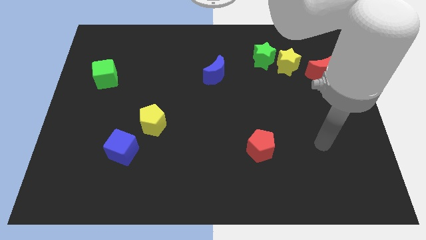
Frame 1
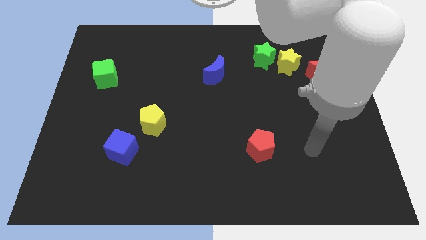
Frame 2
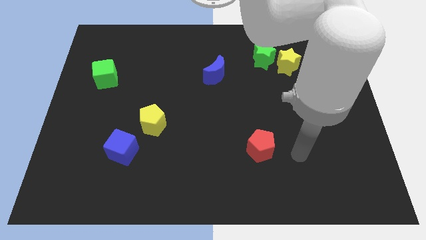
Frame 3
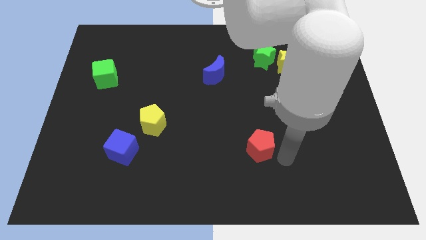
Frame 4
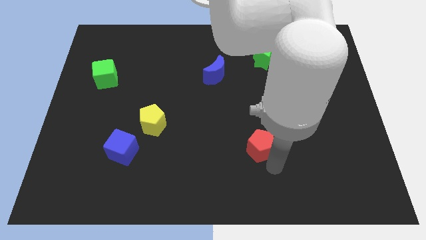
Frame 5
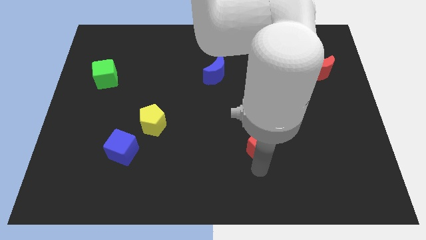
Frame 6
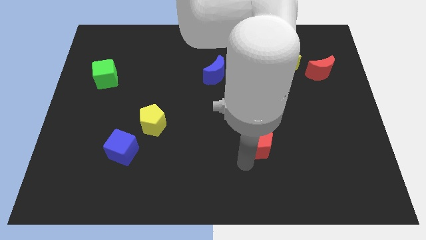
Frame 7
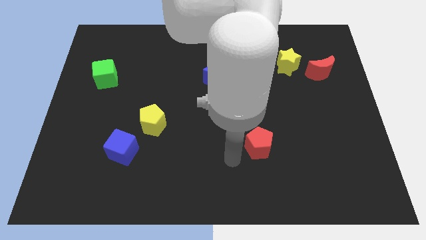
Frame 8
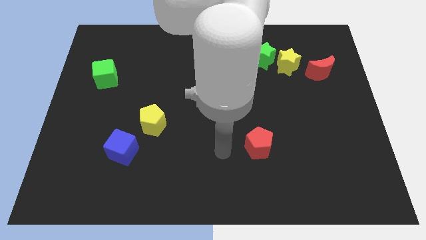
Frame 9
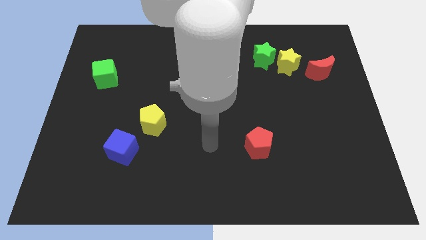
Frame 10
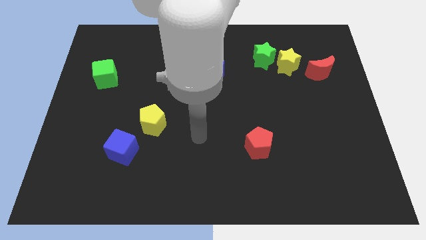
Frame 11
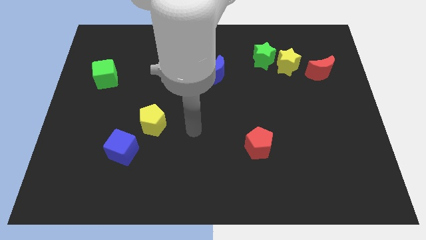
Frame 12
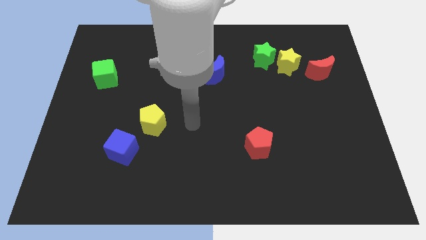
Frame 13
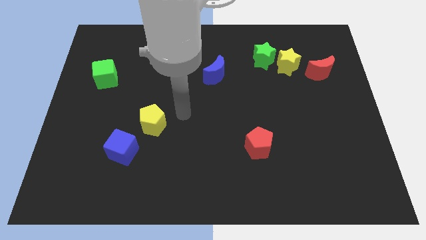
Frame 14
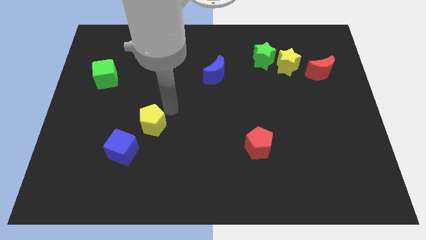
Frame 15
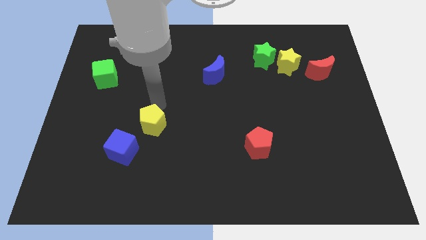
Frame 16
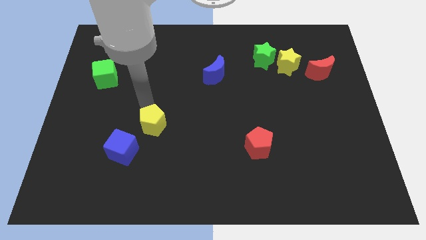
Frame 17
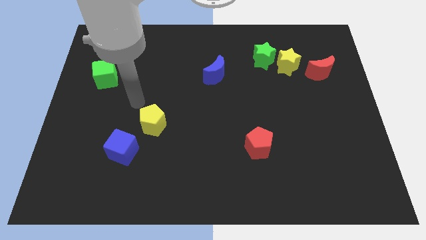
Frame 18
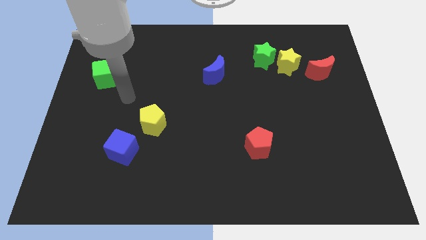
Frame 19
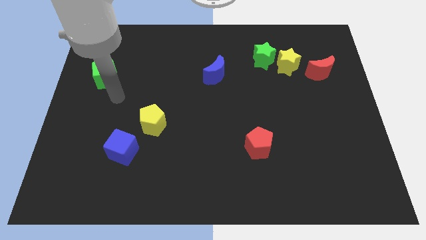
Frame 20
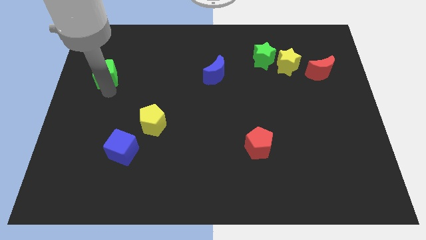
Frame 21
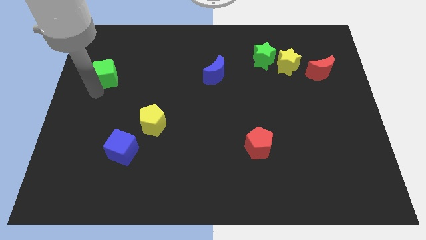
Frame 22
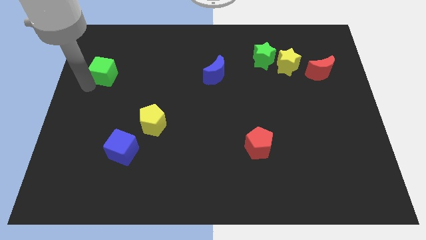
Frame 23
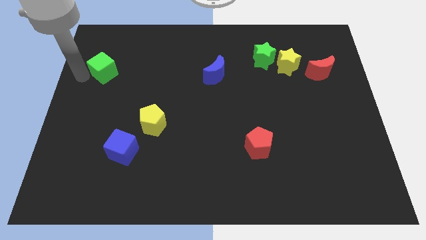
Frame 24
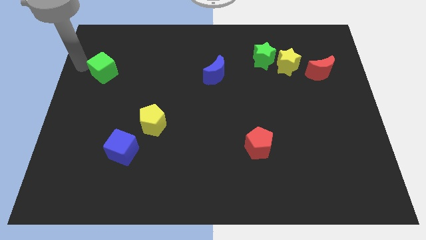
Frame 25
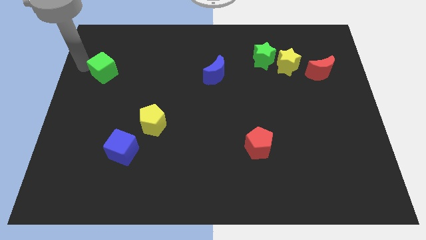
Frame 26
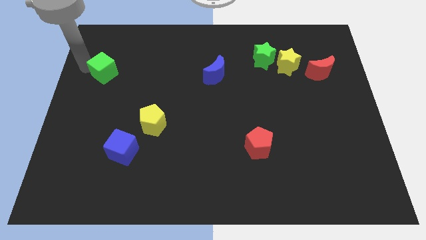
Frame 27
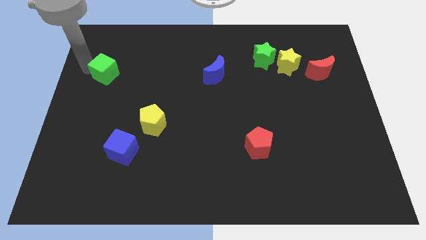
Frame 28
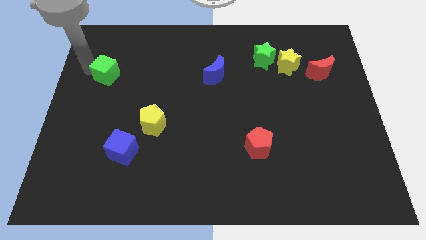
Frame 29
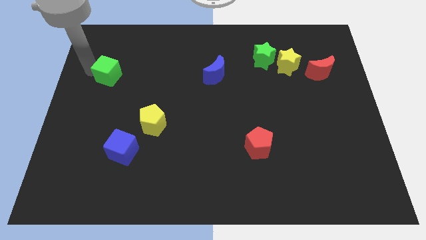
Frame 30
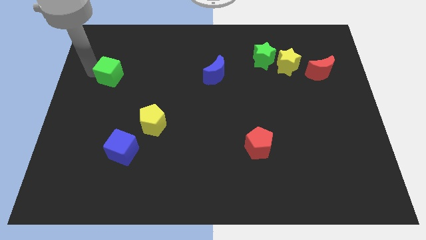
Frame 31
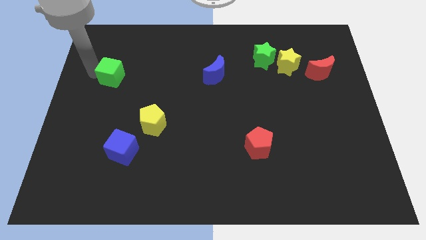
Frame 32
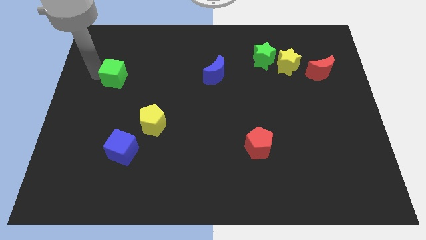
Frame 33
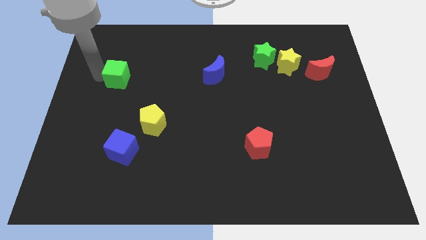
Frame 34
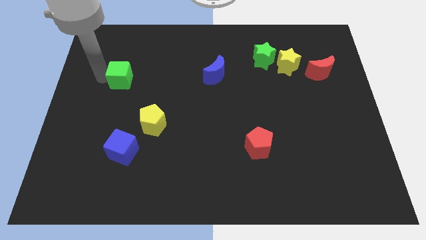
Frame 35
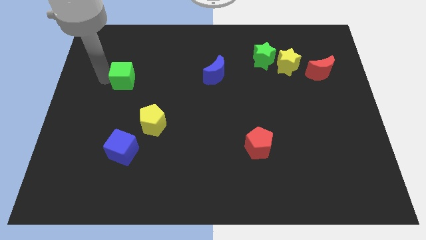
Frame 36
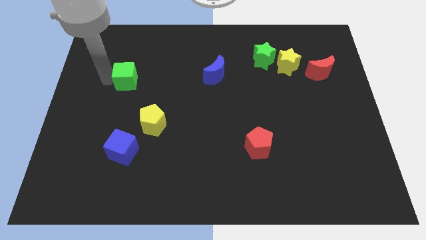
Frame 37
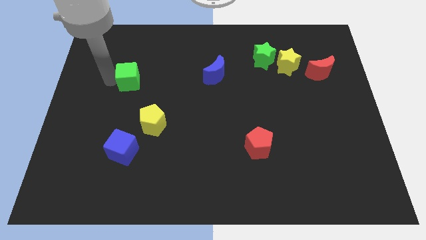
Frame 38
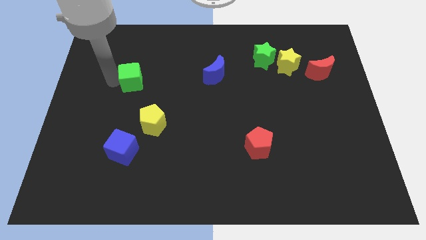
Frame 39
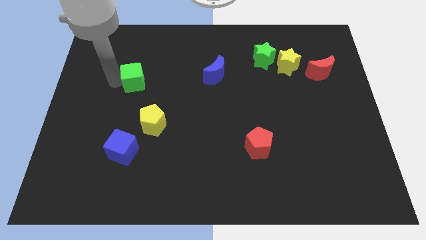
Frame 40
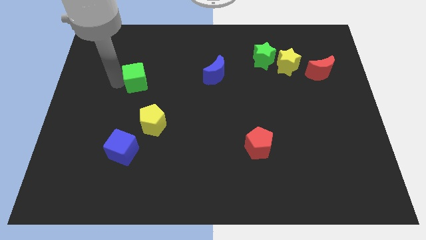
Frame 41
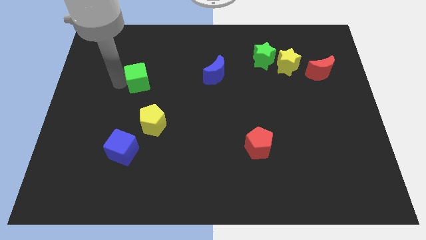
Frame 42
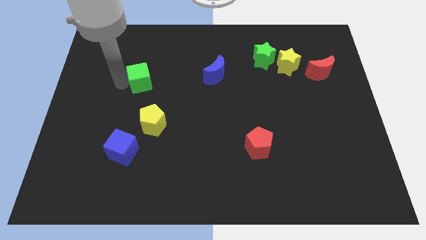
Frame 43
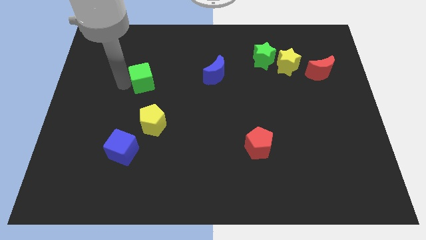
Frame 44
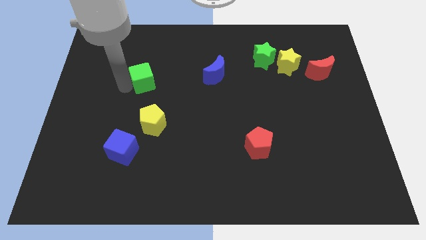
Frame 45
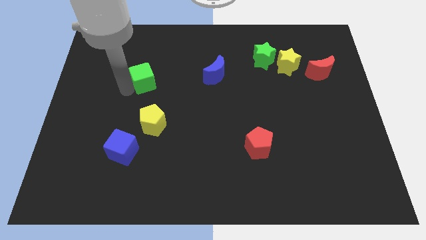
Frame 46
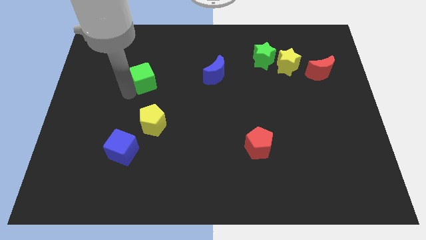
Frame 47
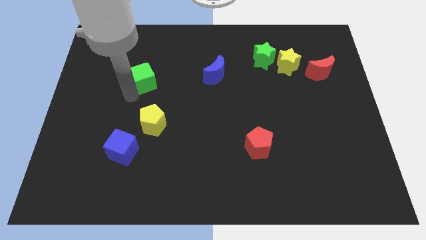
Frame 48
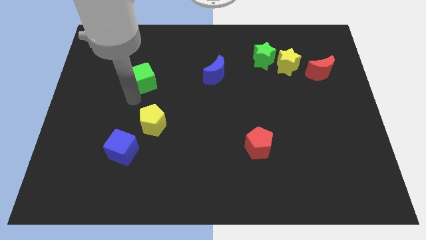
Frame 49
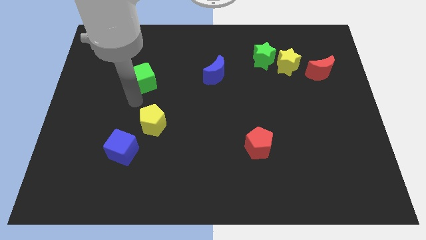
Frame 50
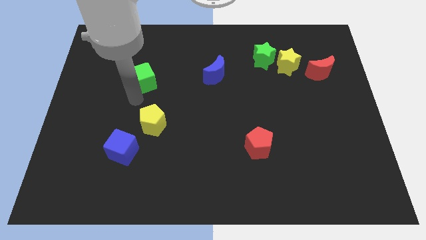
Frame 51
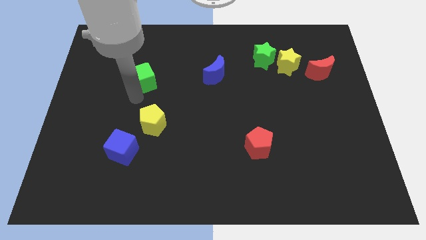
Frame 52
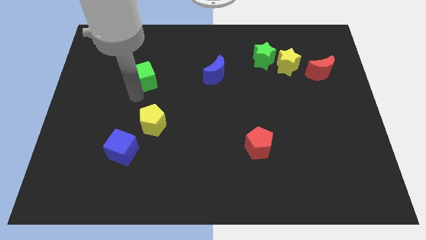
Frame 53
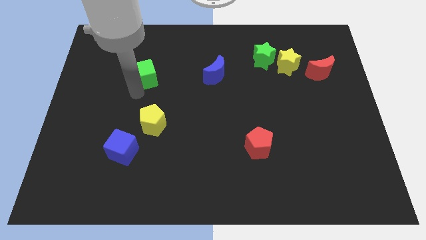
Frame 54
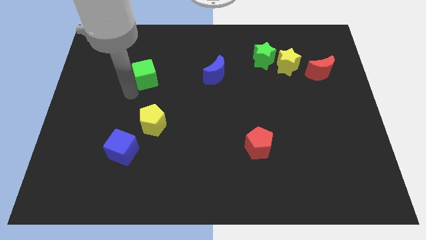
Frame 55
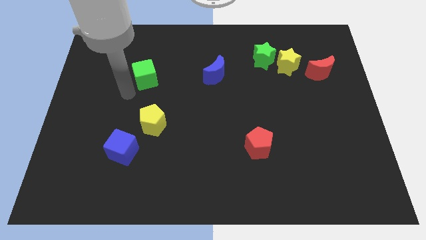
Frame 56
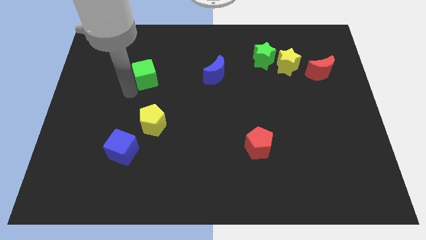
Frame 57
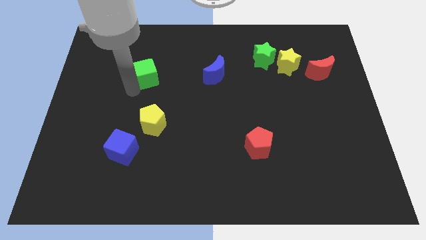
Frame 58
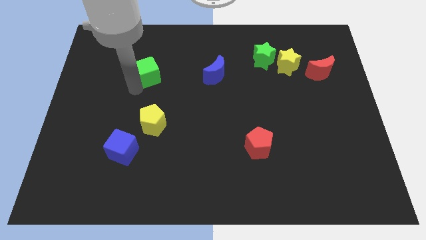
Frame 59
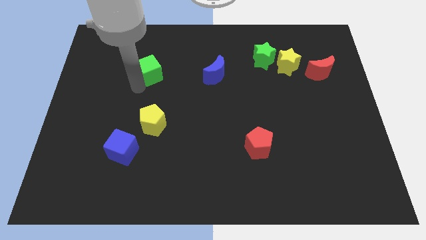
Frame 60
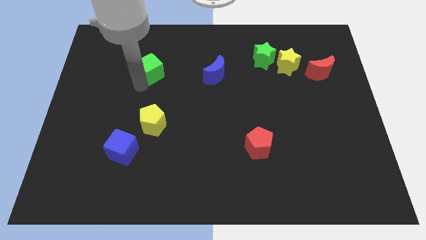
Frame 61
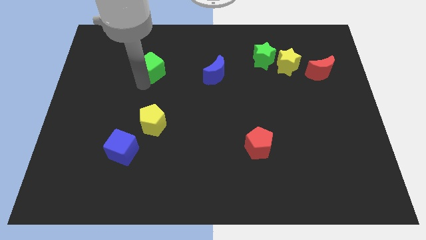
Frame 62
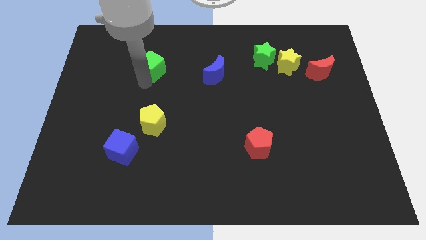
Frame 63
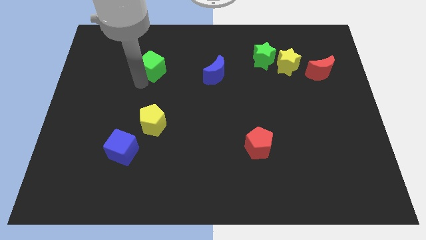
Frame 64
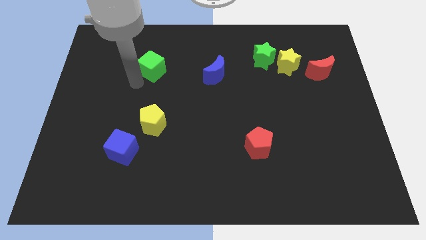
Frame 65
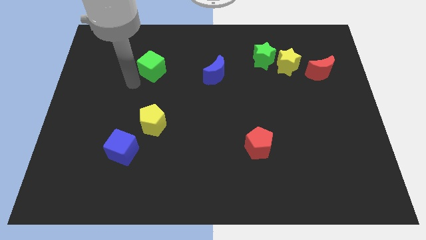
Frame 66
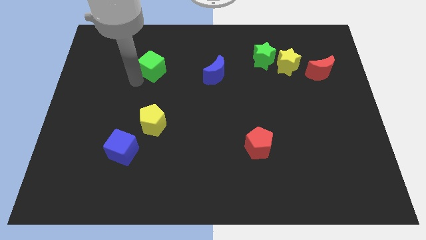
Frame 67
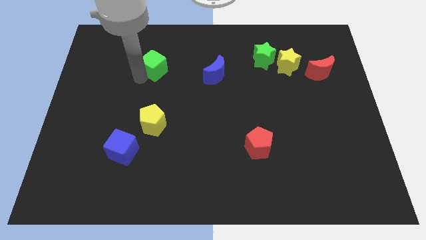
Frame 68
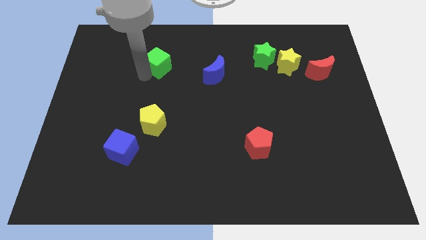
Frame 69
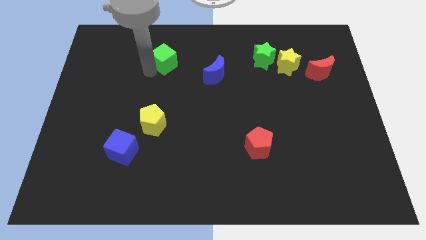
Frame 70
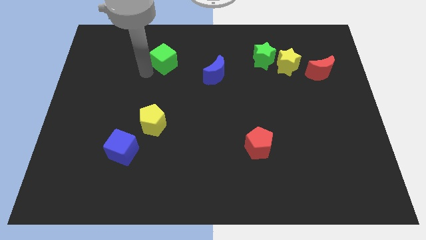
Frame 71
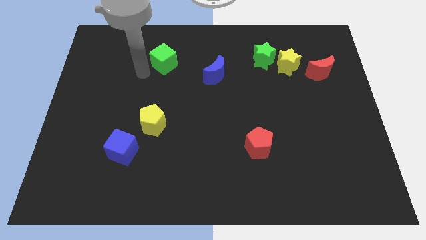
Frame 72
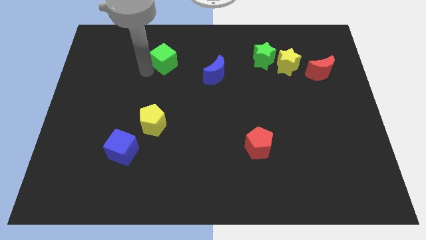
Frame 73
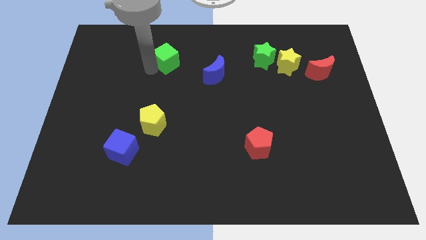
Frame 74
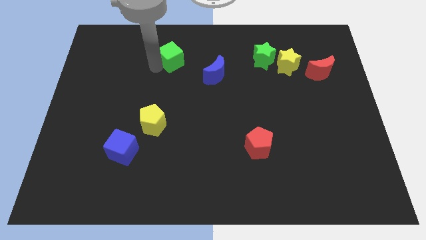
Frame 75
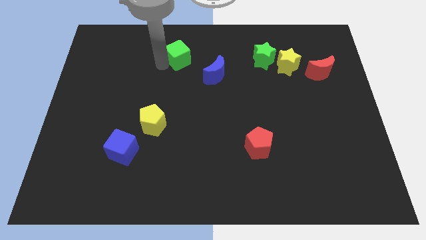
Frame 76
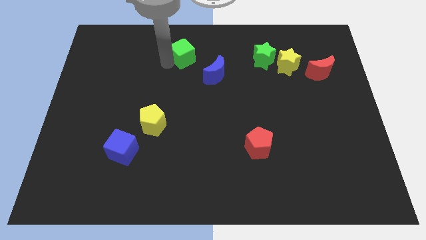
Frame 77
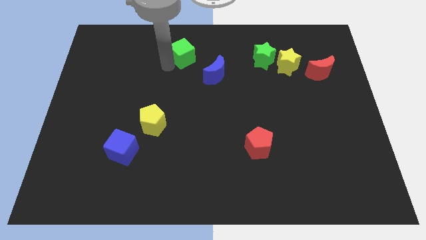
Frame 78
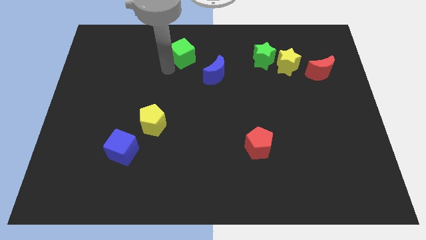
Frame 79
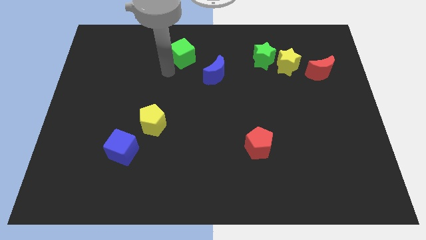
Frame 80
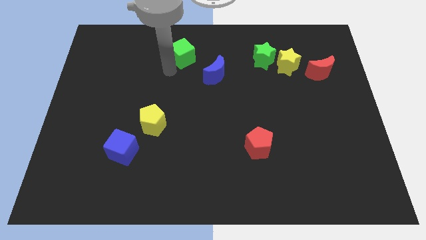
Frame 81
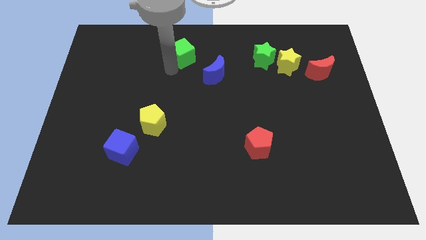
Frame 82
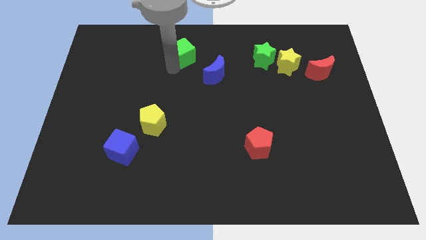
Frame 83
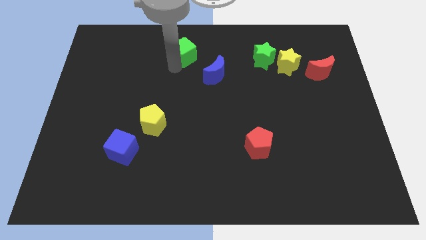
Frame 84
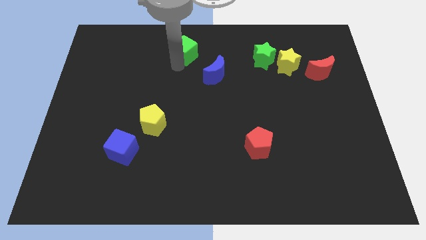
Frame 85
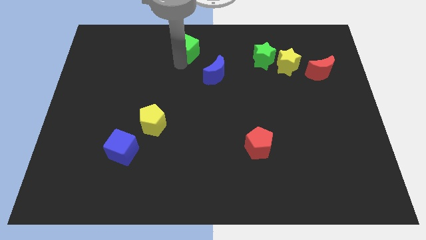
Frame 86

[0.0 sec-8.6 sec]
push the green cube to the top side
